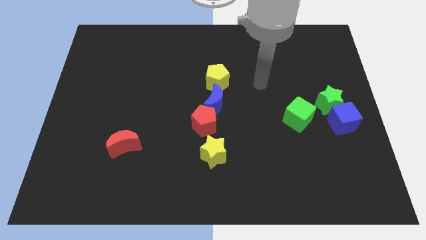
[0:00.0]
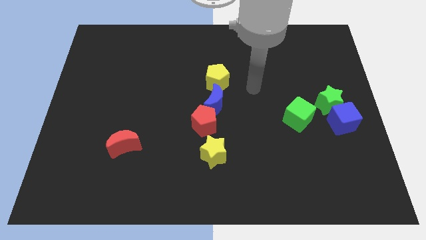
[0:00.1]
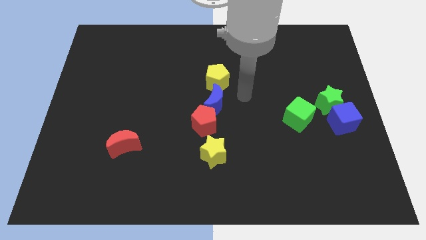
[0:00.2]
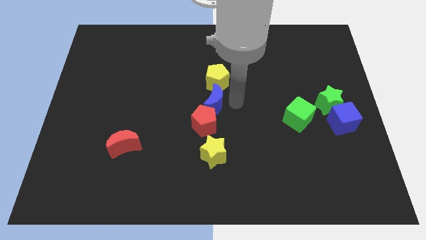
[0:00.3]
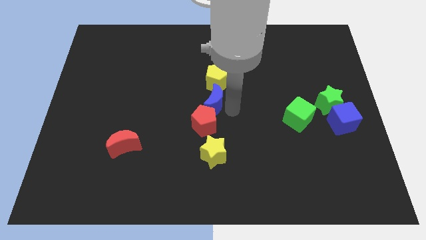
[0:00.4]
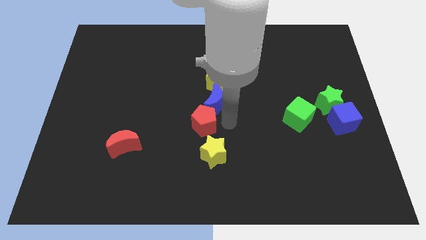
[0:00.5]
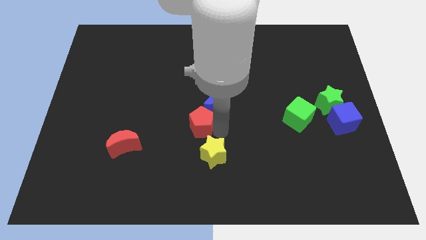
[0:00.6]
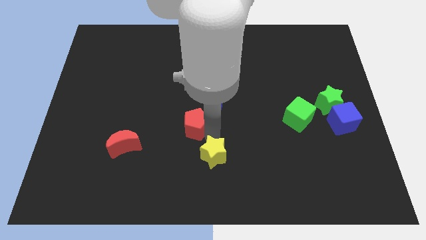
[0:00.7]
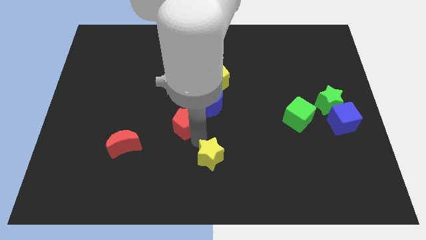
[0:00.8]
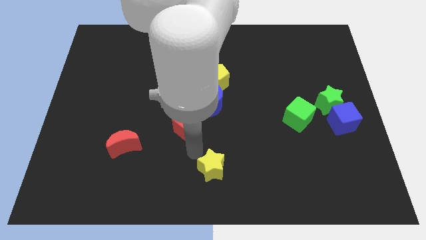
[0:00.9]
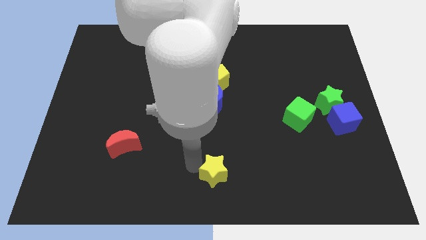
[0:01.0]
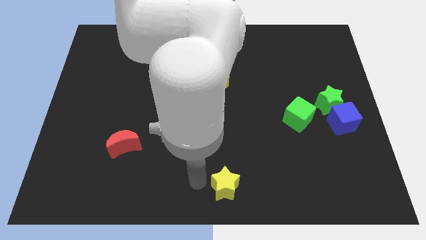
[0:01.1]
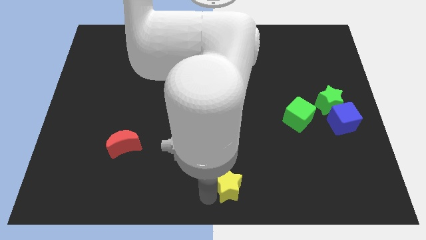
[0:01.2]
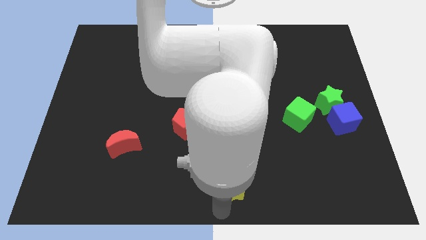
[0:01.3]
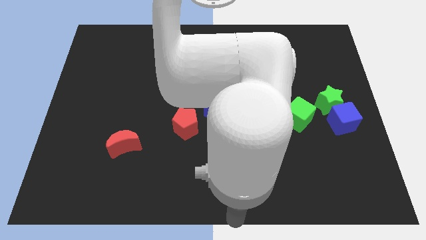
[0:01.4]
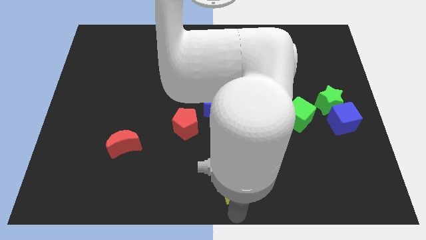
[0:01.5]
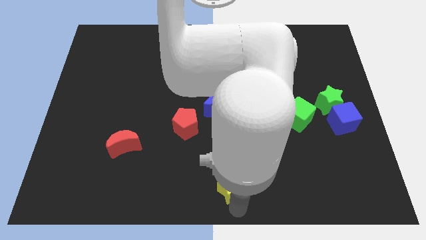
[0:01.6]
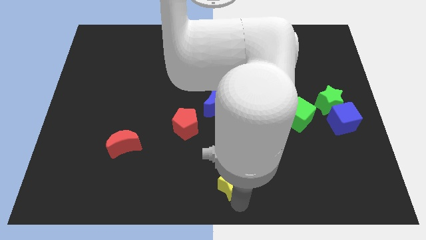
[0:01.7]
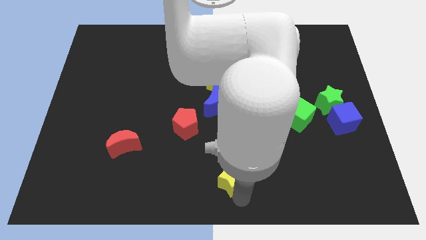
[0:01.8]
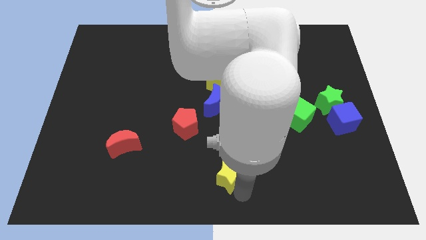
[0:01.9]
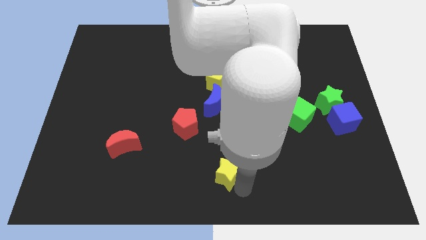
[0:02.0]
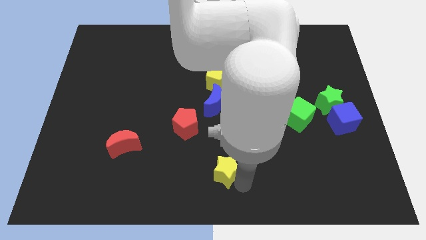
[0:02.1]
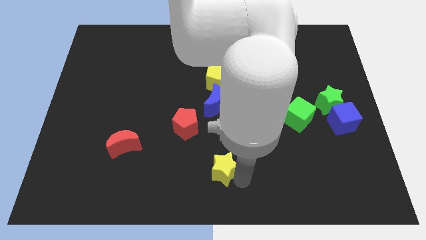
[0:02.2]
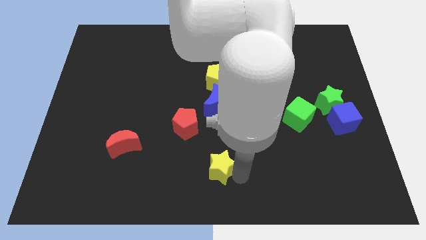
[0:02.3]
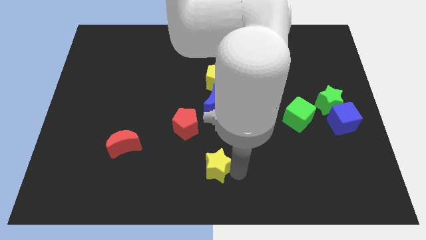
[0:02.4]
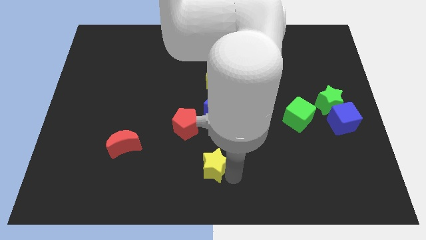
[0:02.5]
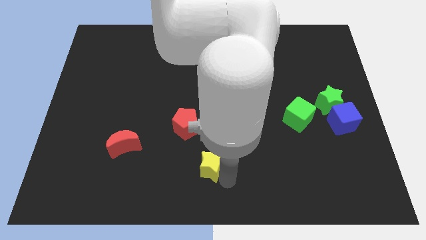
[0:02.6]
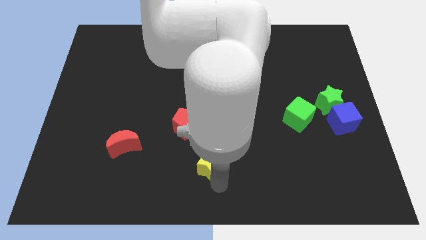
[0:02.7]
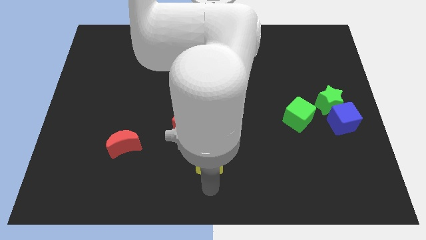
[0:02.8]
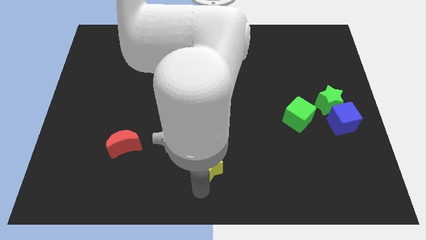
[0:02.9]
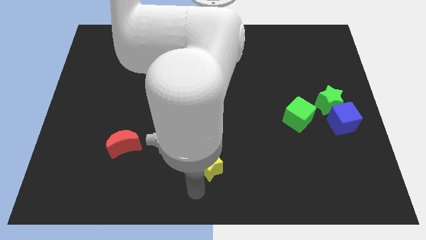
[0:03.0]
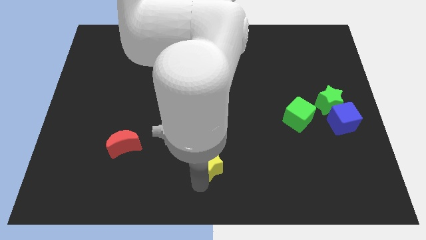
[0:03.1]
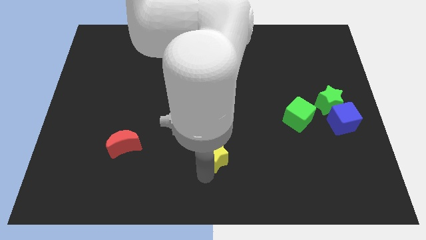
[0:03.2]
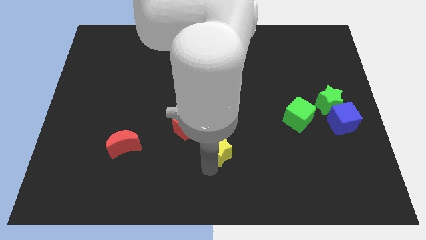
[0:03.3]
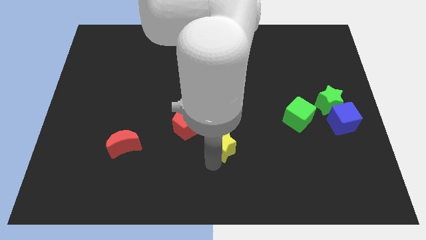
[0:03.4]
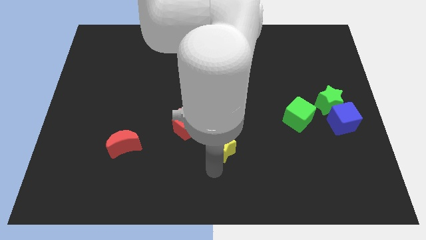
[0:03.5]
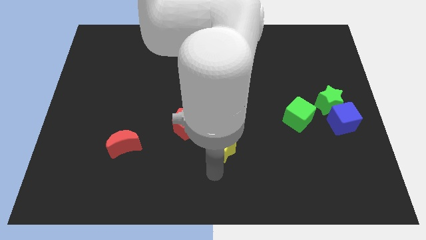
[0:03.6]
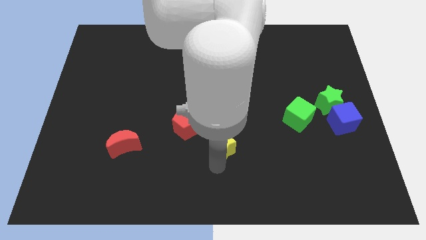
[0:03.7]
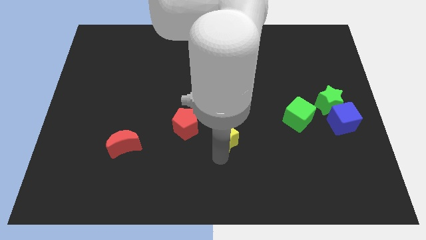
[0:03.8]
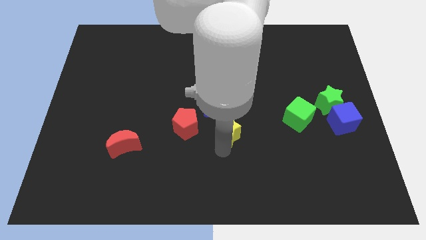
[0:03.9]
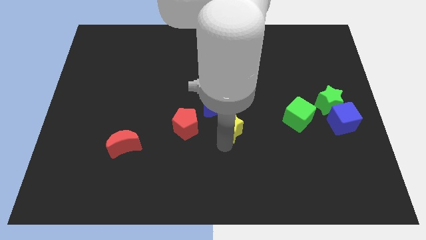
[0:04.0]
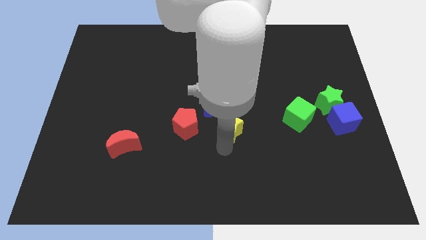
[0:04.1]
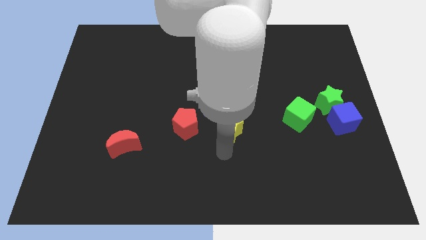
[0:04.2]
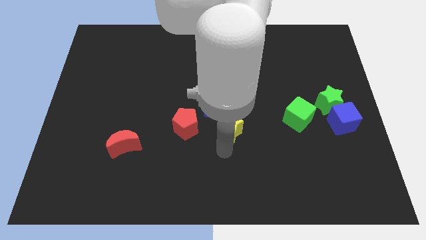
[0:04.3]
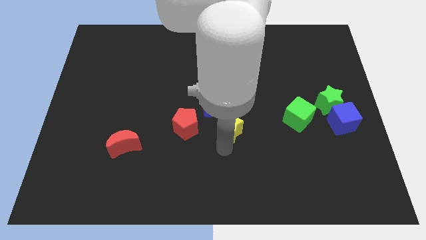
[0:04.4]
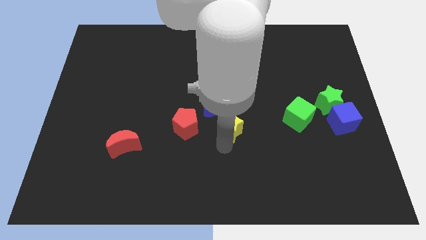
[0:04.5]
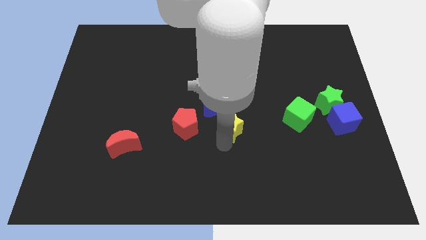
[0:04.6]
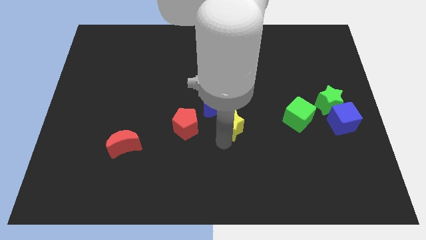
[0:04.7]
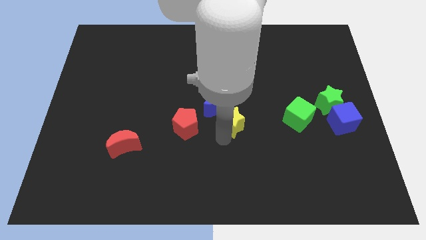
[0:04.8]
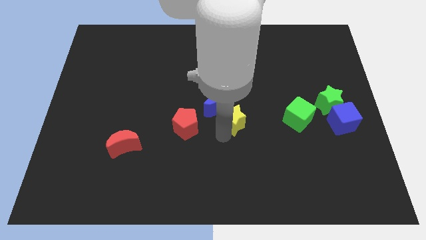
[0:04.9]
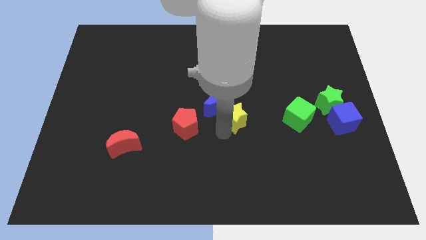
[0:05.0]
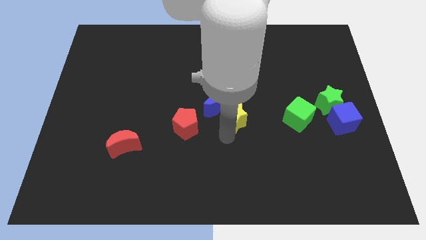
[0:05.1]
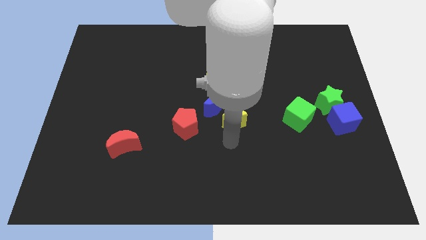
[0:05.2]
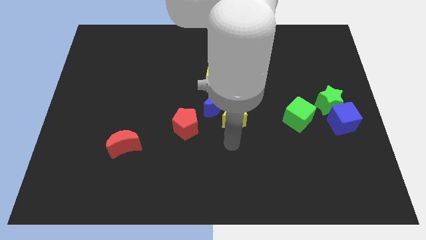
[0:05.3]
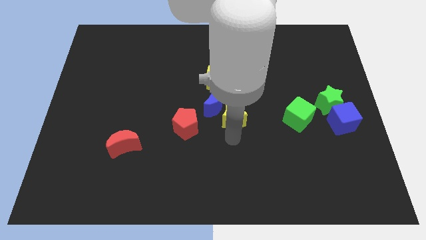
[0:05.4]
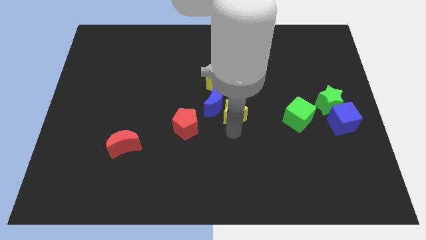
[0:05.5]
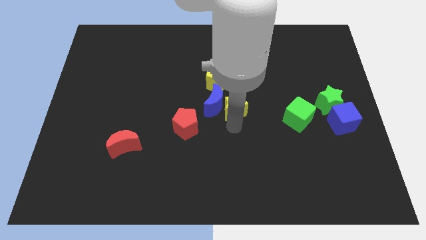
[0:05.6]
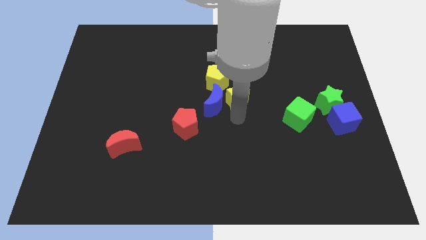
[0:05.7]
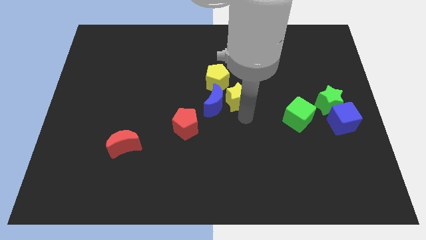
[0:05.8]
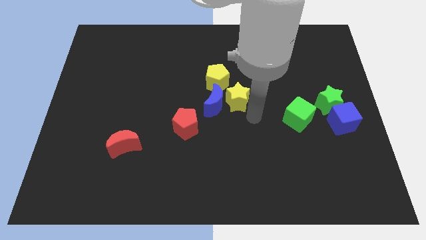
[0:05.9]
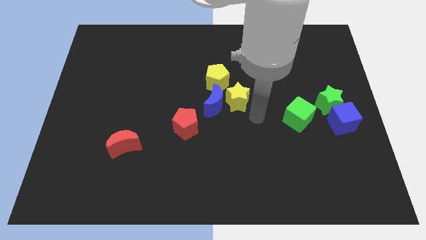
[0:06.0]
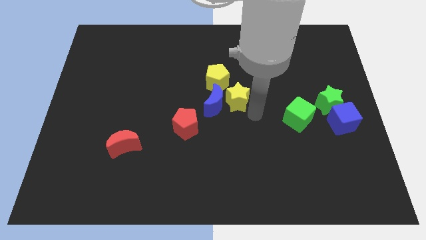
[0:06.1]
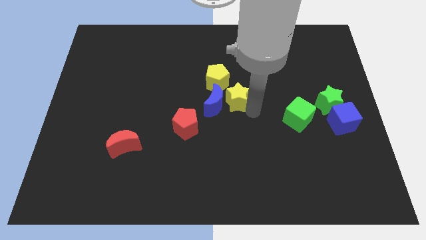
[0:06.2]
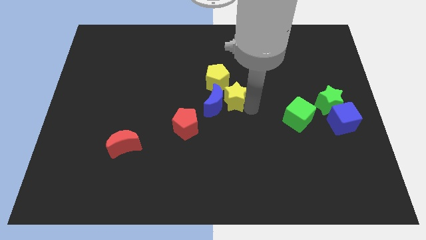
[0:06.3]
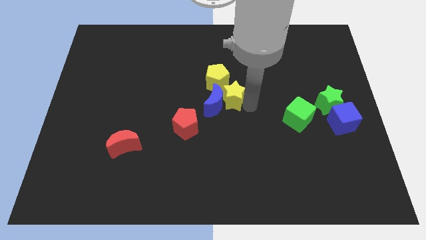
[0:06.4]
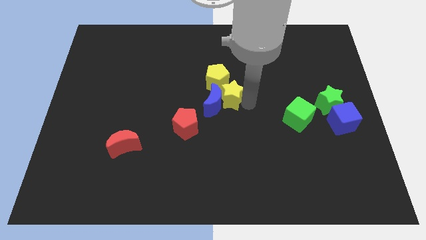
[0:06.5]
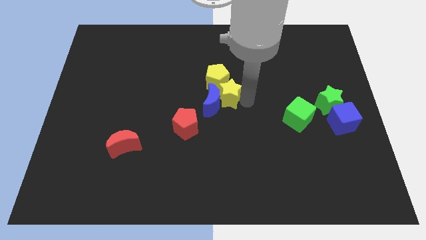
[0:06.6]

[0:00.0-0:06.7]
push the yellow star next to the yellow pentagon

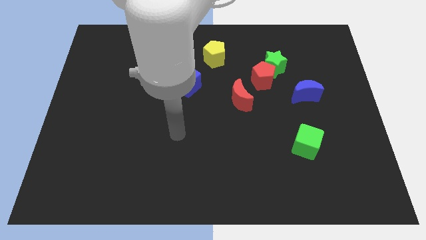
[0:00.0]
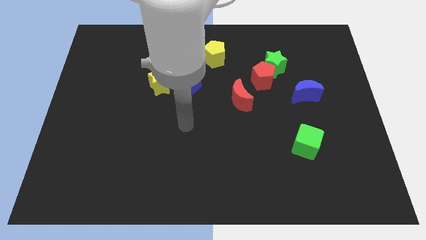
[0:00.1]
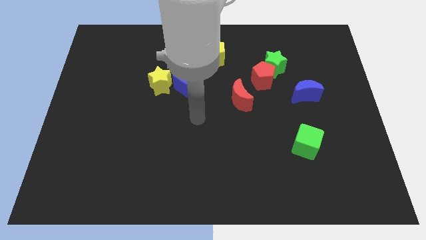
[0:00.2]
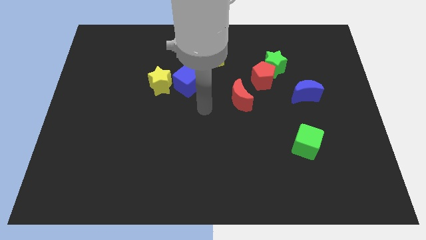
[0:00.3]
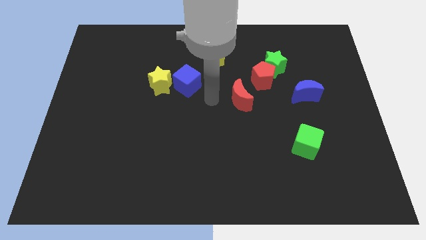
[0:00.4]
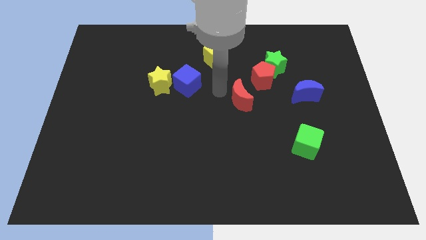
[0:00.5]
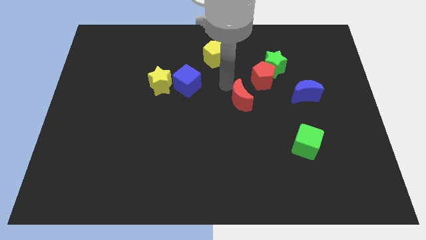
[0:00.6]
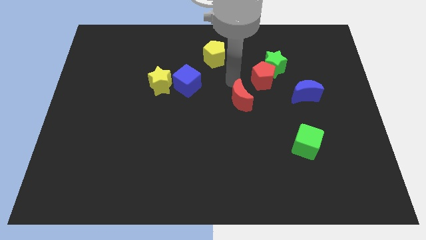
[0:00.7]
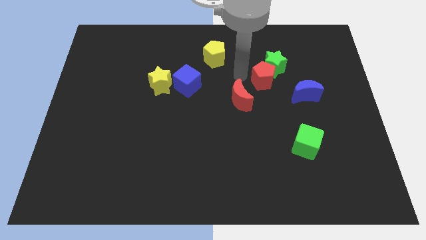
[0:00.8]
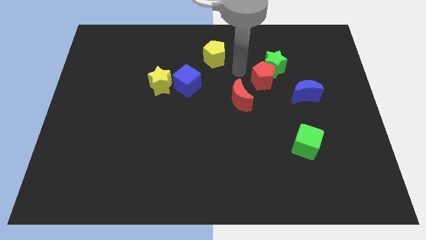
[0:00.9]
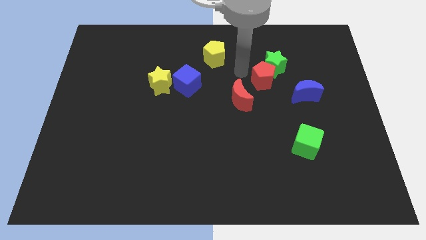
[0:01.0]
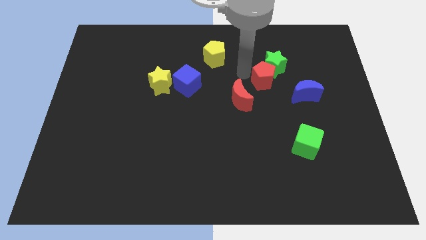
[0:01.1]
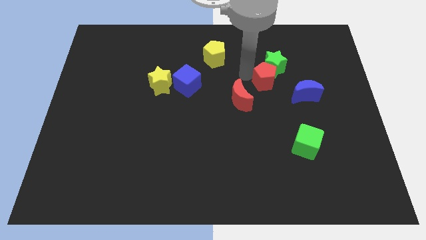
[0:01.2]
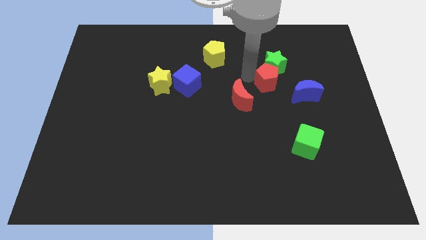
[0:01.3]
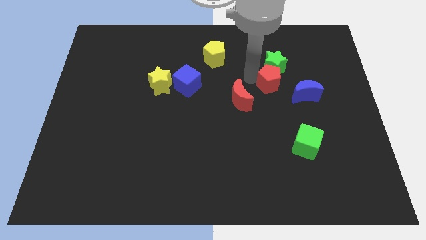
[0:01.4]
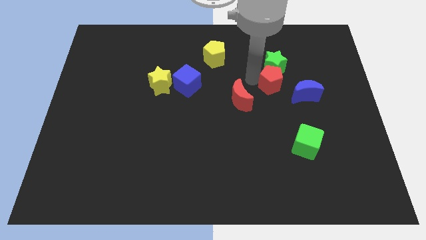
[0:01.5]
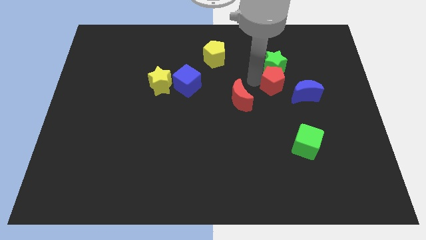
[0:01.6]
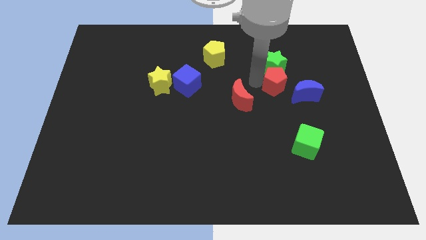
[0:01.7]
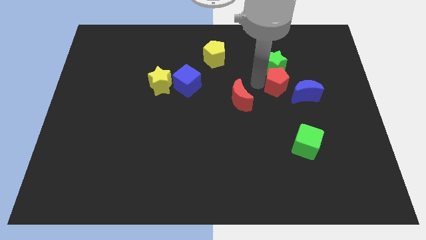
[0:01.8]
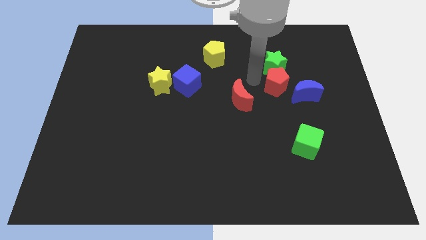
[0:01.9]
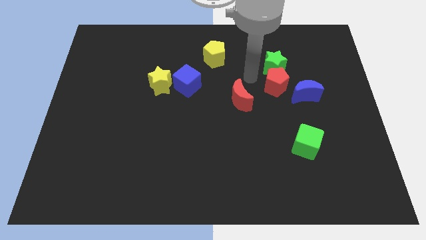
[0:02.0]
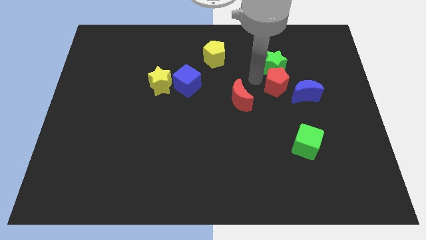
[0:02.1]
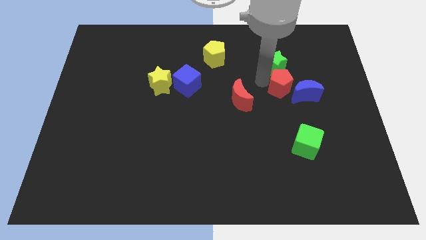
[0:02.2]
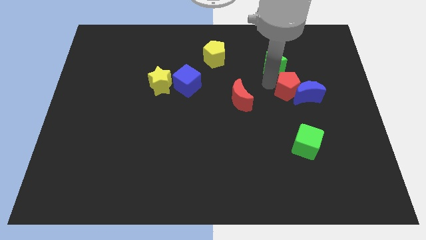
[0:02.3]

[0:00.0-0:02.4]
move the red pentagon towards the blue moon
